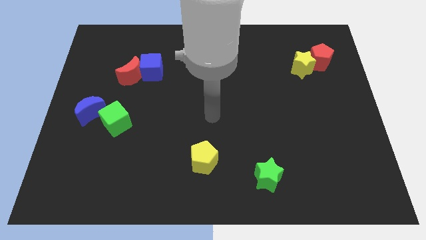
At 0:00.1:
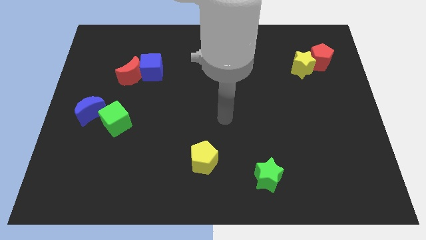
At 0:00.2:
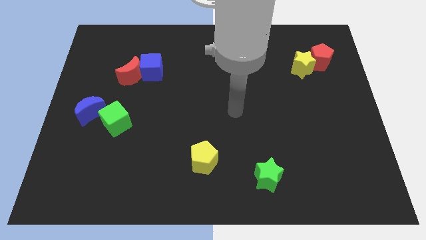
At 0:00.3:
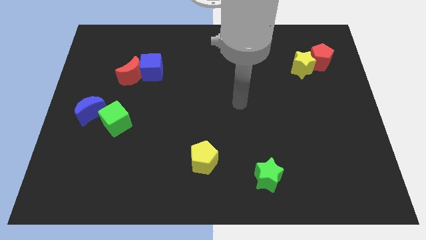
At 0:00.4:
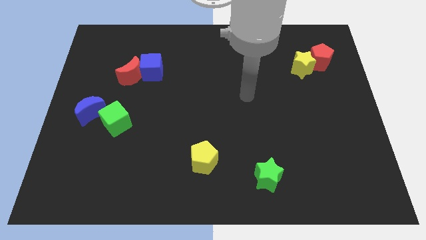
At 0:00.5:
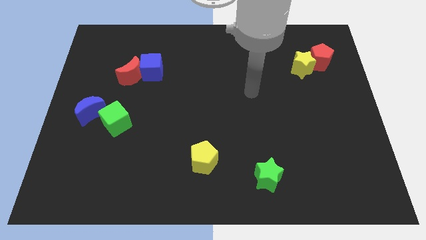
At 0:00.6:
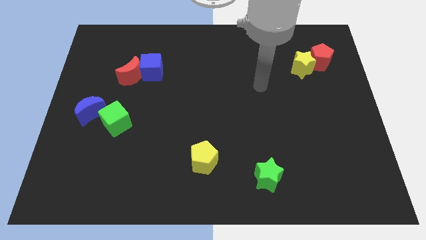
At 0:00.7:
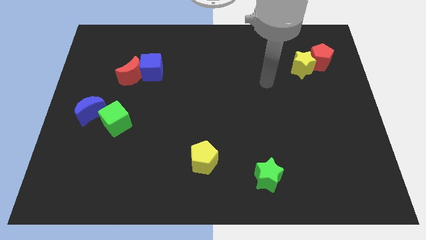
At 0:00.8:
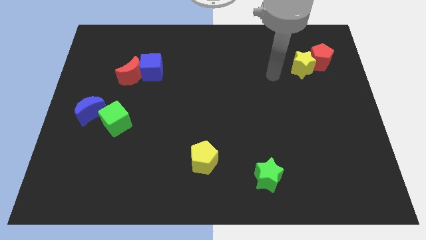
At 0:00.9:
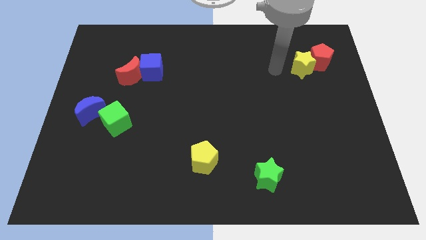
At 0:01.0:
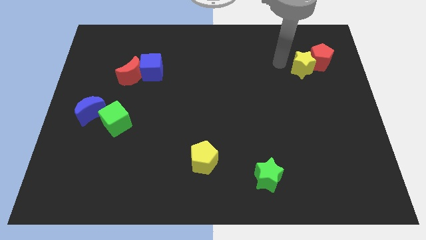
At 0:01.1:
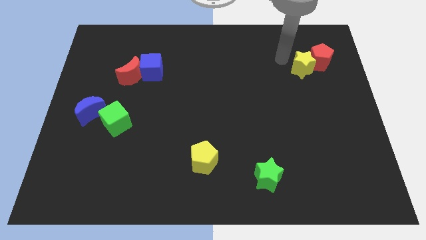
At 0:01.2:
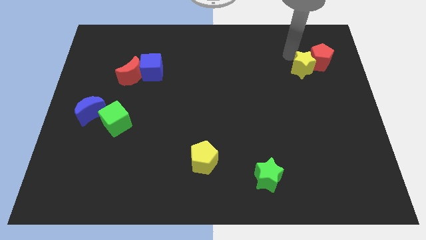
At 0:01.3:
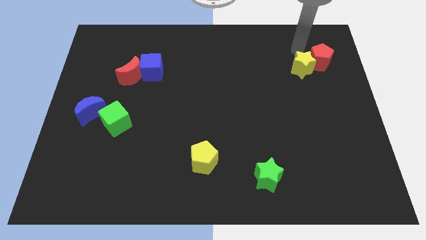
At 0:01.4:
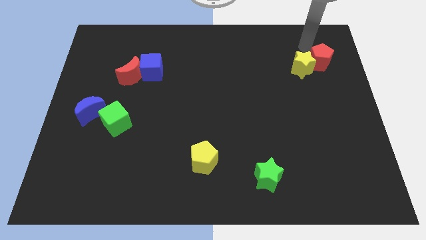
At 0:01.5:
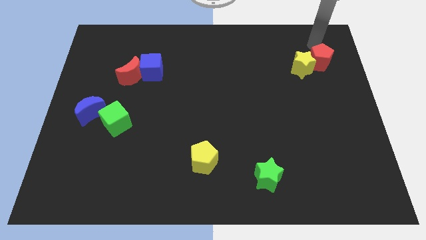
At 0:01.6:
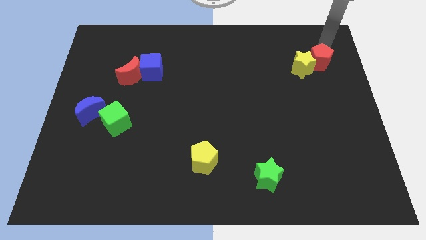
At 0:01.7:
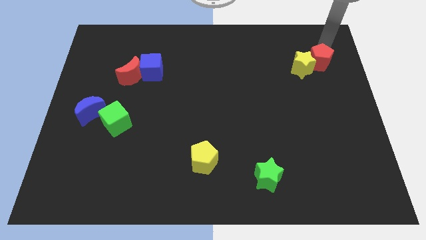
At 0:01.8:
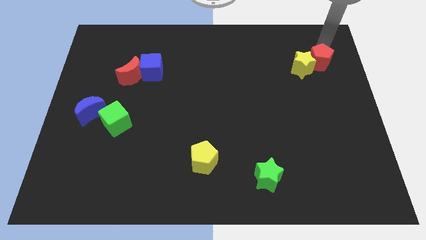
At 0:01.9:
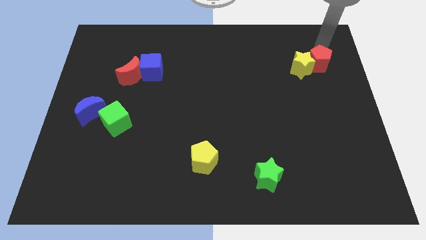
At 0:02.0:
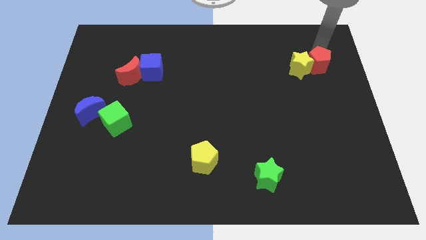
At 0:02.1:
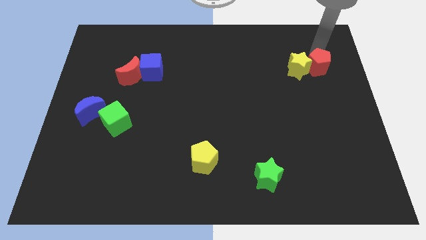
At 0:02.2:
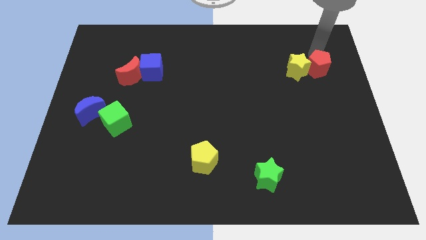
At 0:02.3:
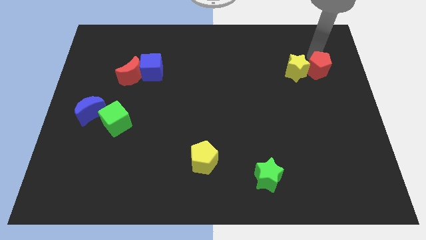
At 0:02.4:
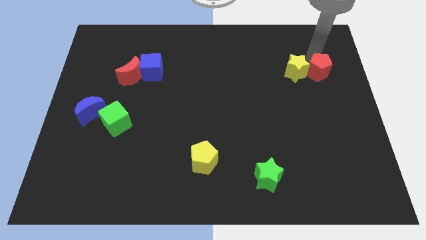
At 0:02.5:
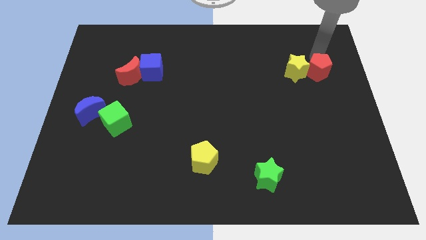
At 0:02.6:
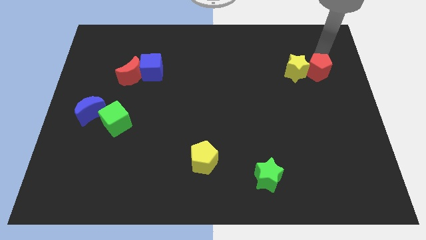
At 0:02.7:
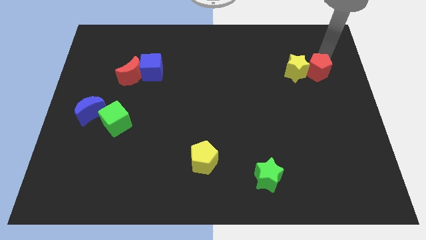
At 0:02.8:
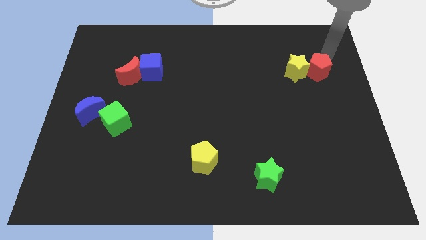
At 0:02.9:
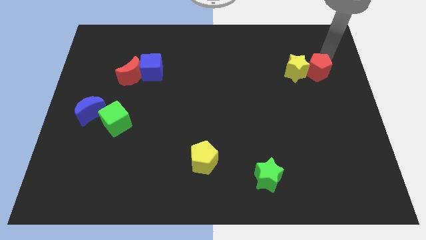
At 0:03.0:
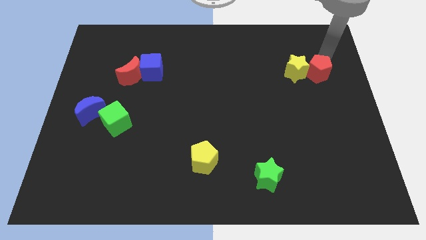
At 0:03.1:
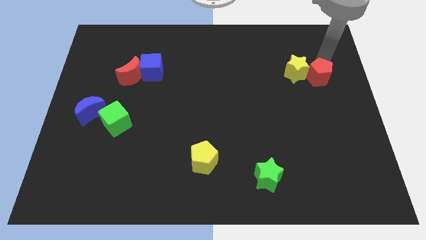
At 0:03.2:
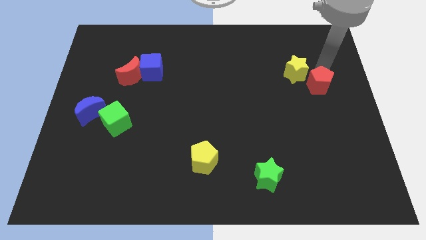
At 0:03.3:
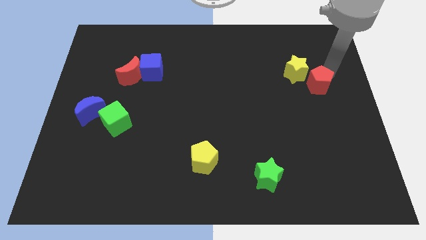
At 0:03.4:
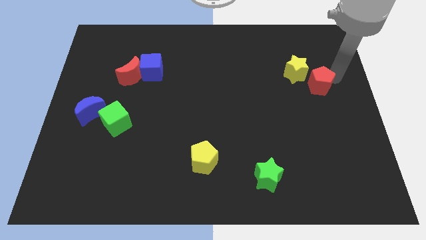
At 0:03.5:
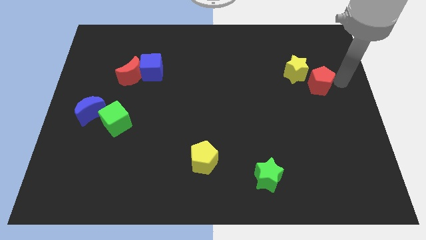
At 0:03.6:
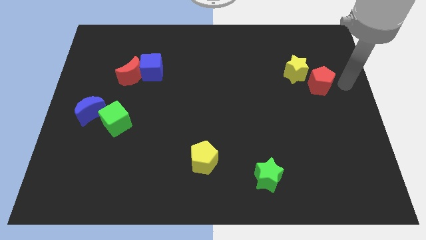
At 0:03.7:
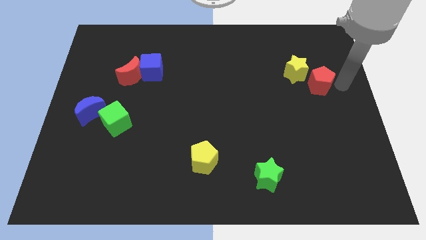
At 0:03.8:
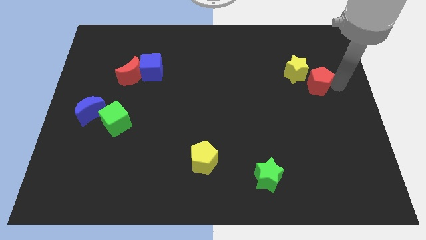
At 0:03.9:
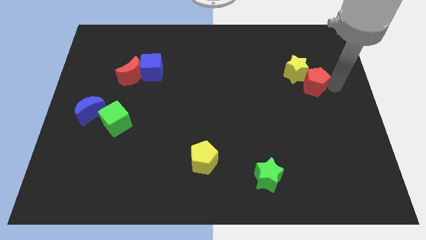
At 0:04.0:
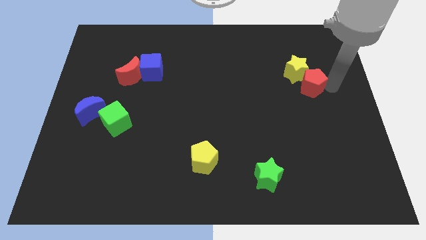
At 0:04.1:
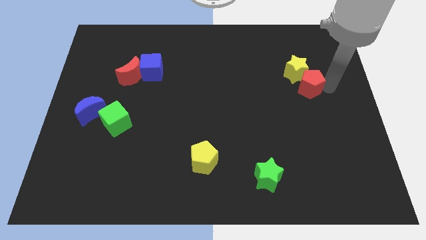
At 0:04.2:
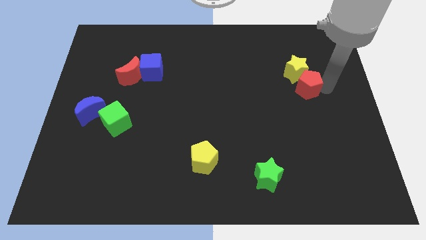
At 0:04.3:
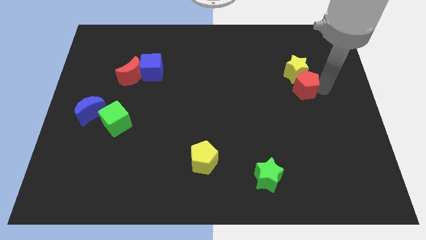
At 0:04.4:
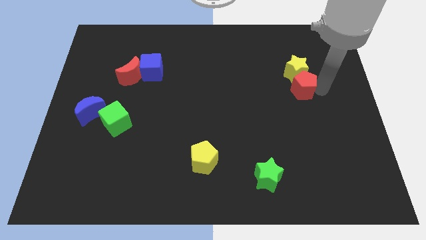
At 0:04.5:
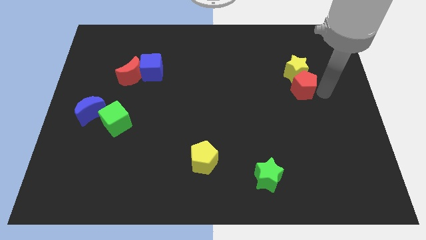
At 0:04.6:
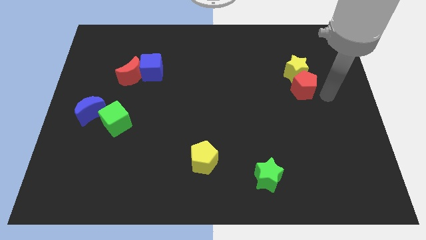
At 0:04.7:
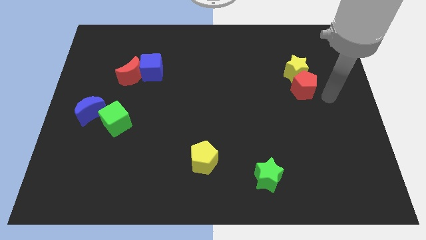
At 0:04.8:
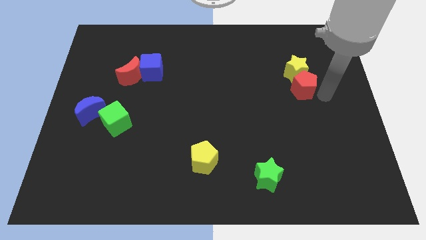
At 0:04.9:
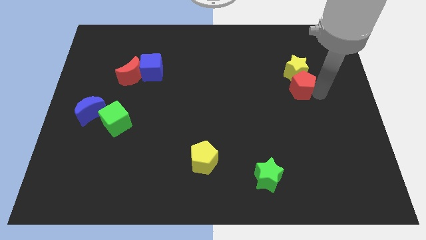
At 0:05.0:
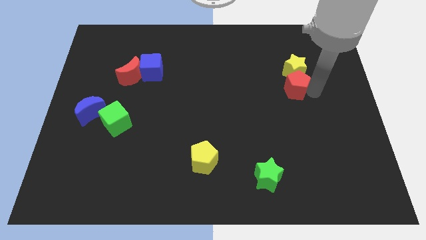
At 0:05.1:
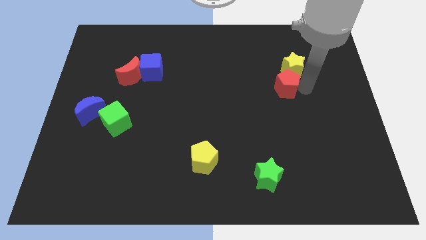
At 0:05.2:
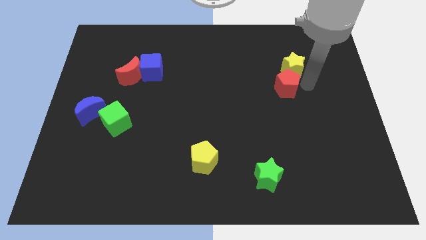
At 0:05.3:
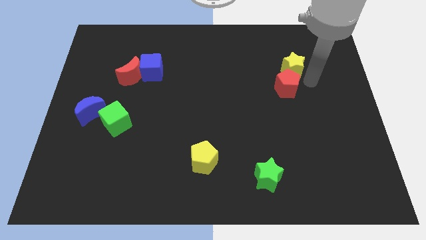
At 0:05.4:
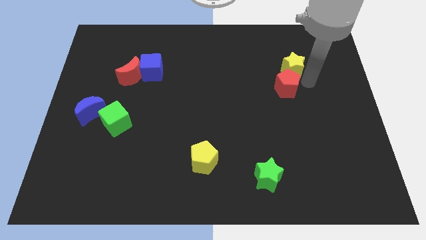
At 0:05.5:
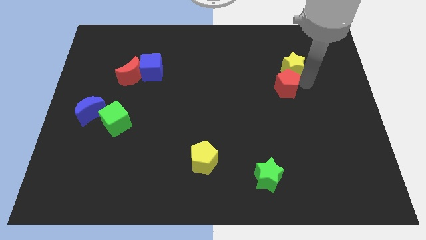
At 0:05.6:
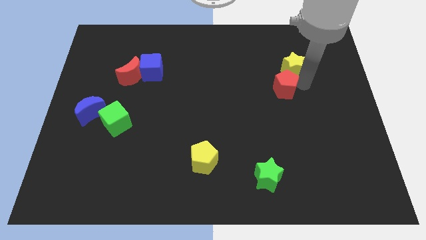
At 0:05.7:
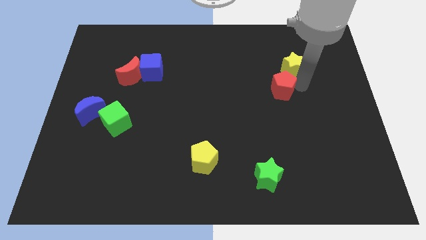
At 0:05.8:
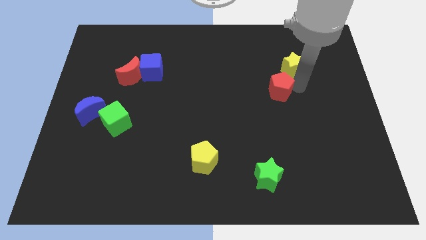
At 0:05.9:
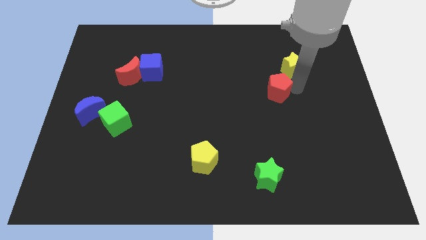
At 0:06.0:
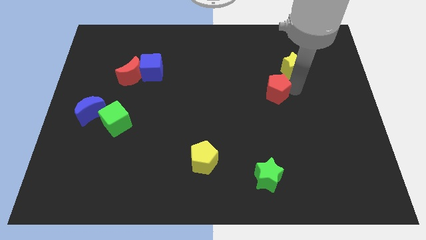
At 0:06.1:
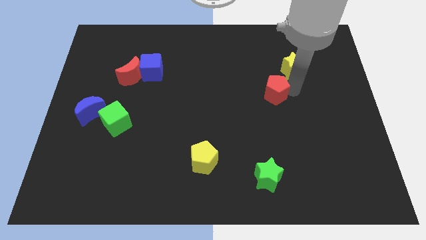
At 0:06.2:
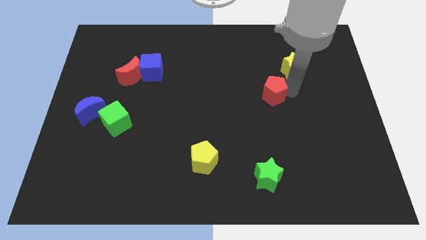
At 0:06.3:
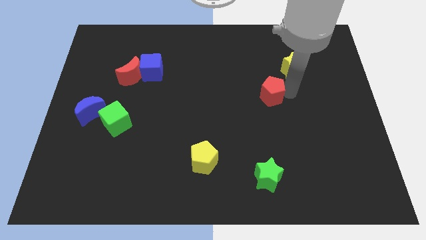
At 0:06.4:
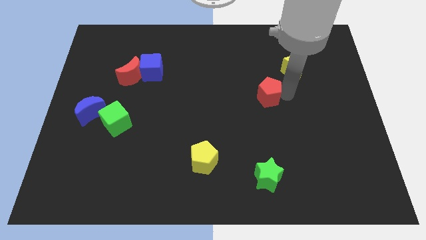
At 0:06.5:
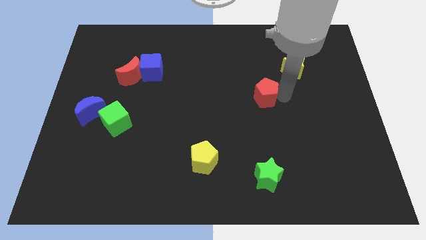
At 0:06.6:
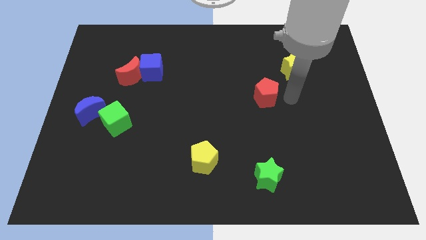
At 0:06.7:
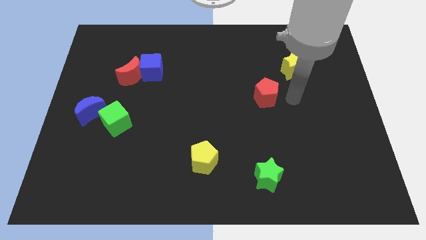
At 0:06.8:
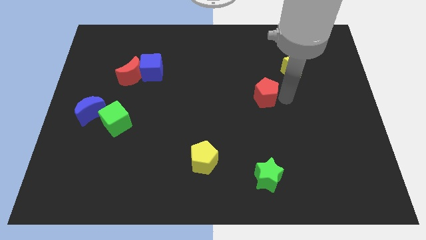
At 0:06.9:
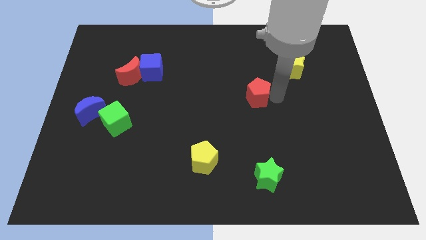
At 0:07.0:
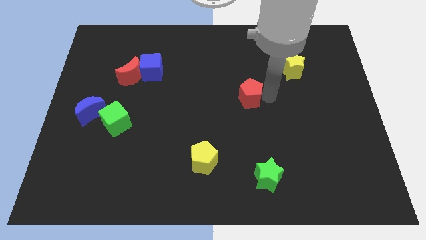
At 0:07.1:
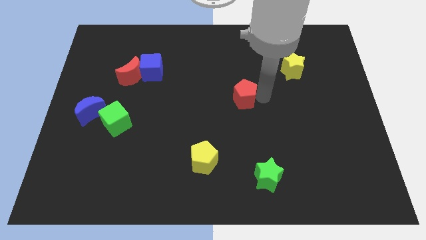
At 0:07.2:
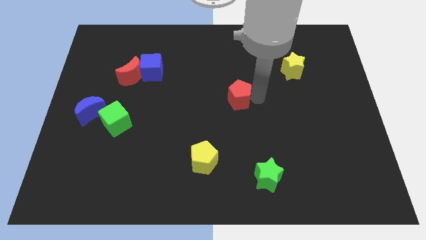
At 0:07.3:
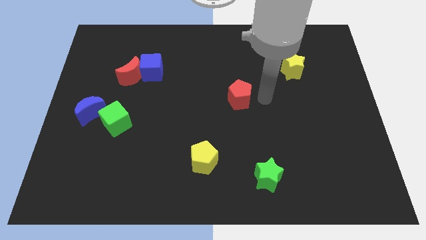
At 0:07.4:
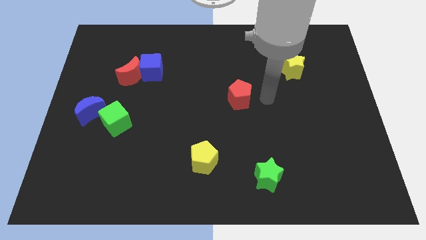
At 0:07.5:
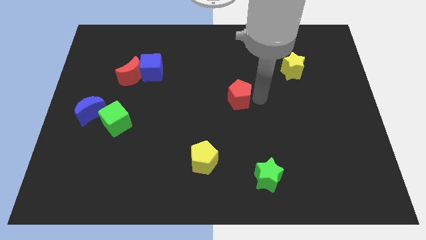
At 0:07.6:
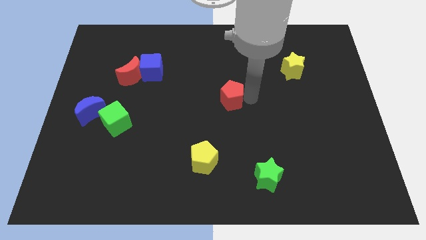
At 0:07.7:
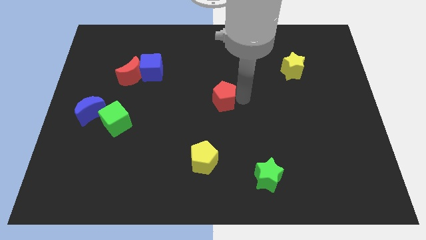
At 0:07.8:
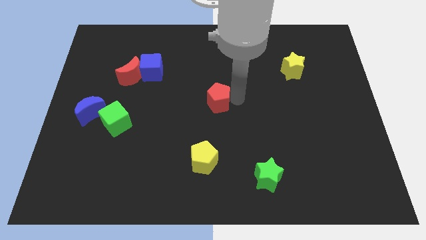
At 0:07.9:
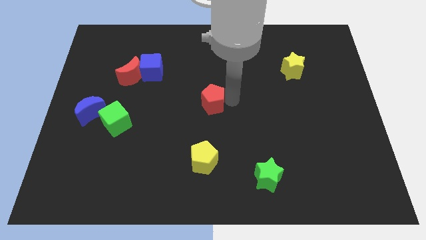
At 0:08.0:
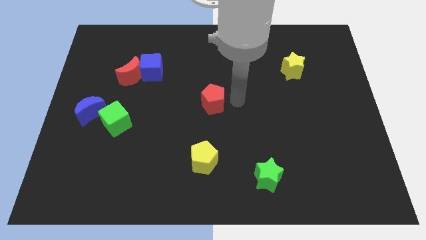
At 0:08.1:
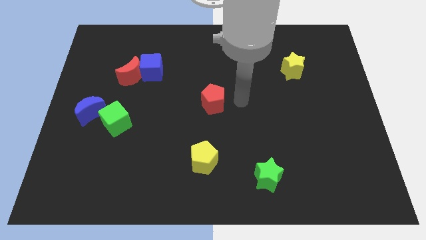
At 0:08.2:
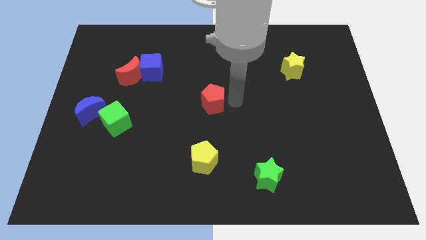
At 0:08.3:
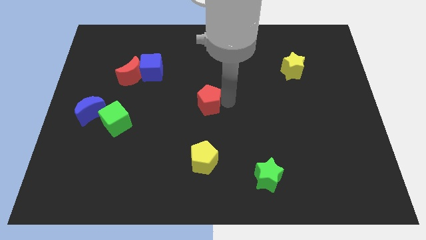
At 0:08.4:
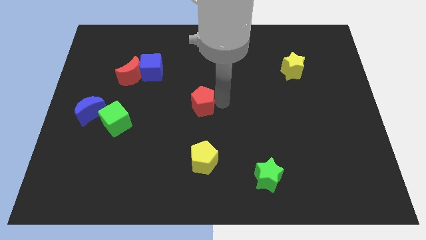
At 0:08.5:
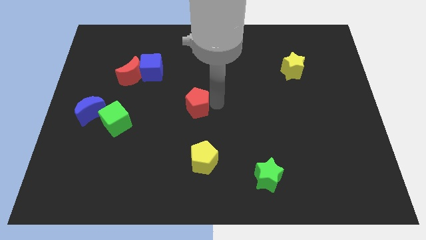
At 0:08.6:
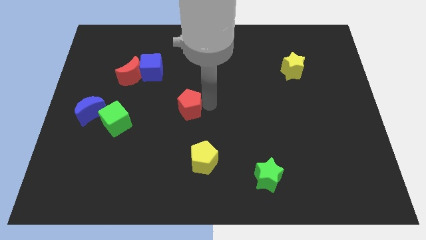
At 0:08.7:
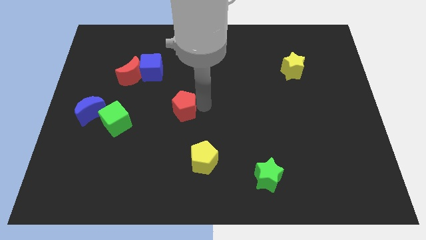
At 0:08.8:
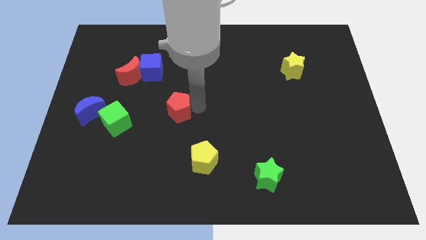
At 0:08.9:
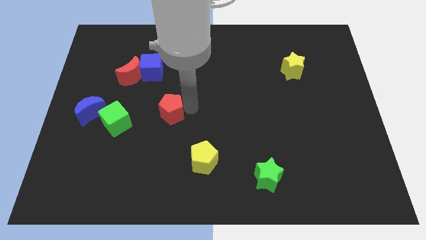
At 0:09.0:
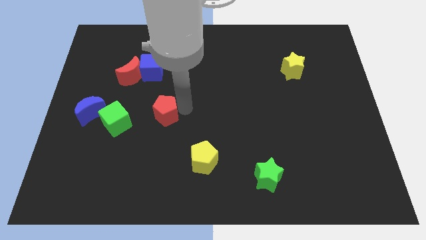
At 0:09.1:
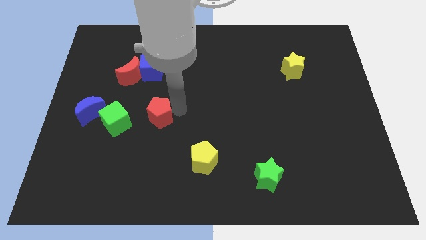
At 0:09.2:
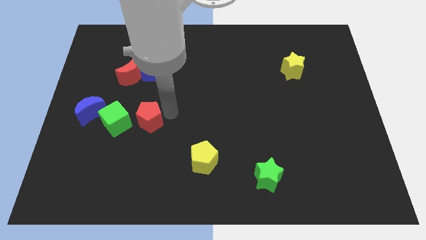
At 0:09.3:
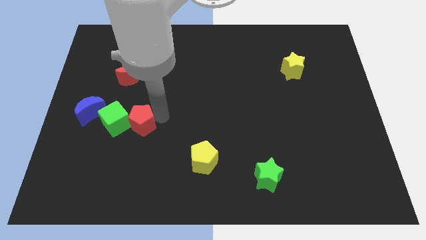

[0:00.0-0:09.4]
push the red pentagon to the green cube
